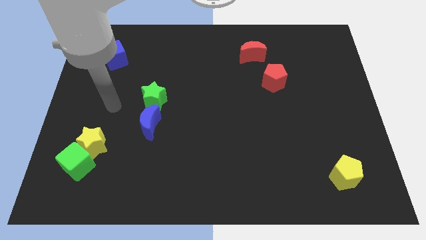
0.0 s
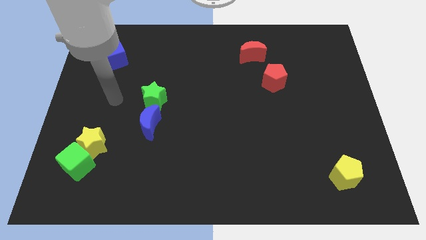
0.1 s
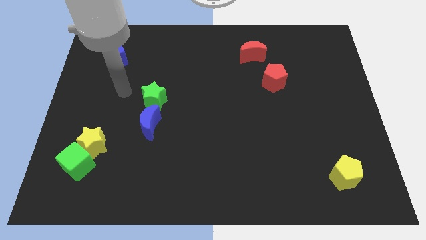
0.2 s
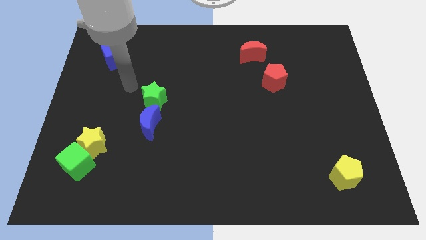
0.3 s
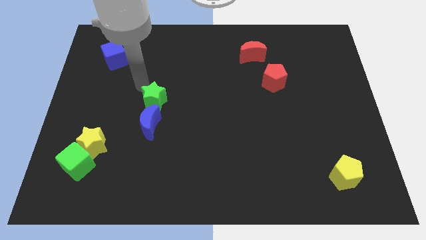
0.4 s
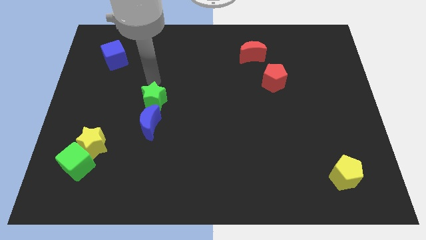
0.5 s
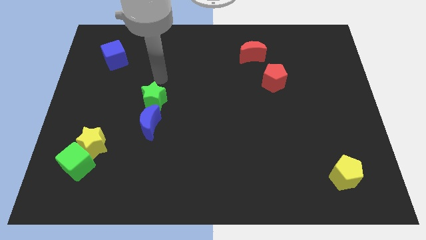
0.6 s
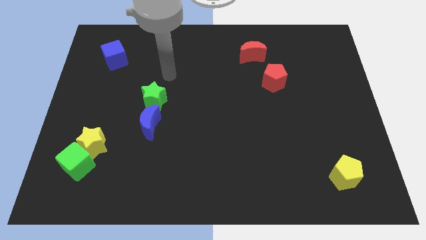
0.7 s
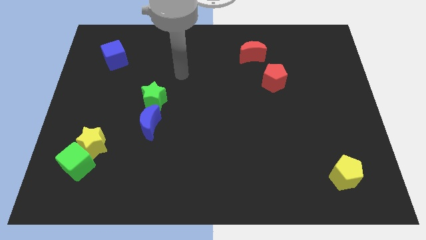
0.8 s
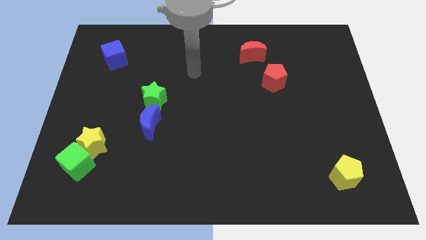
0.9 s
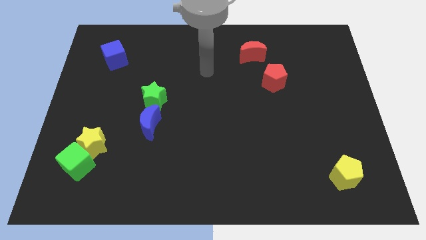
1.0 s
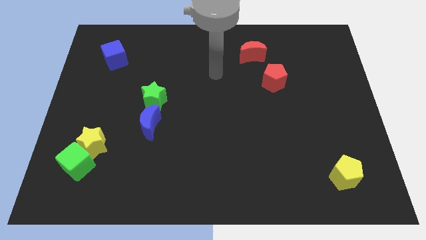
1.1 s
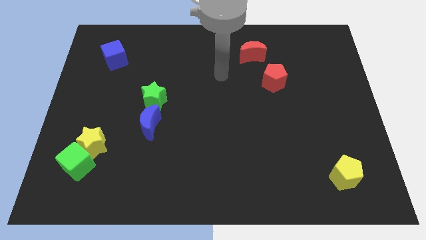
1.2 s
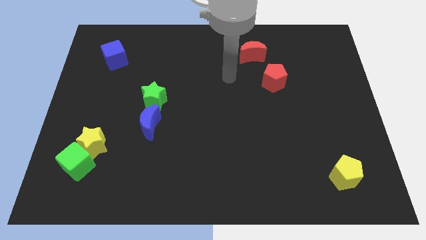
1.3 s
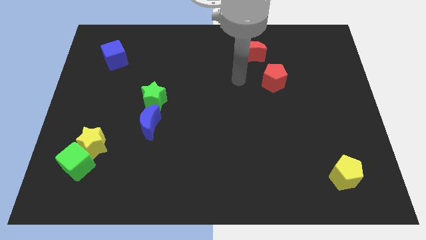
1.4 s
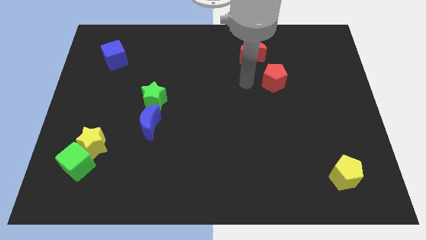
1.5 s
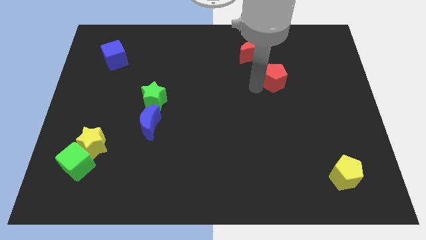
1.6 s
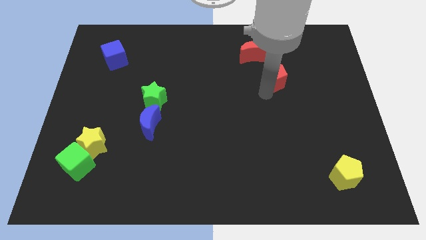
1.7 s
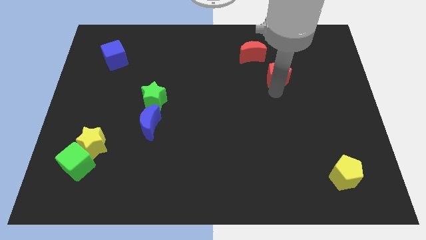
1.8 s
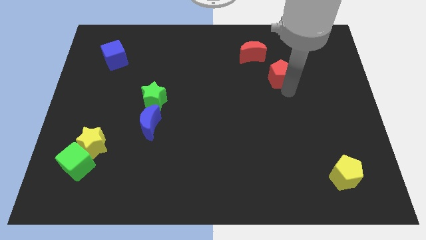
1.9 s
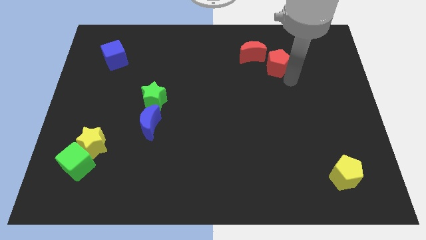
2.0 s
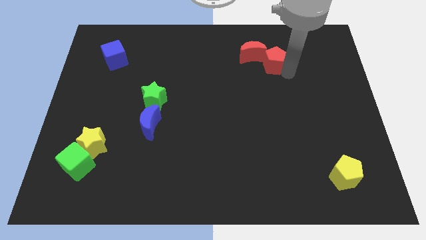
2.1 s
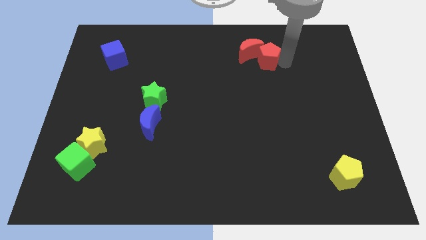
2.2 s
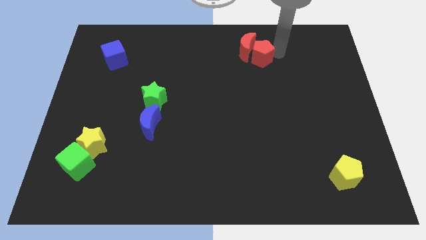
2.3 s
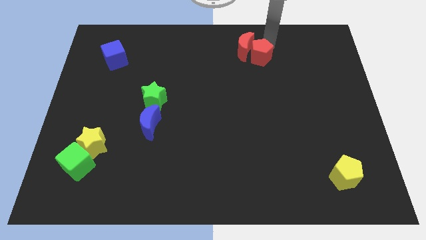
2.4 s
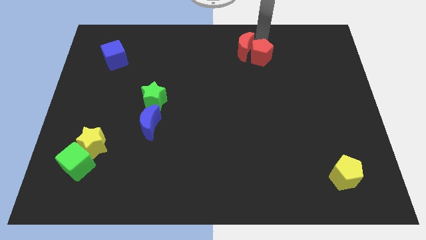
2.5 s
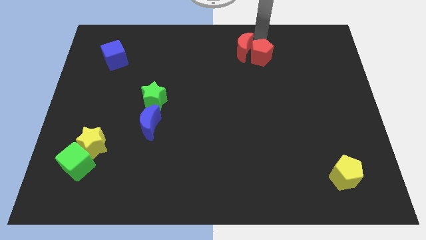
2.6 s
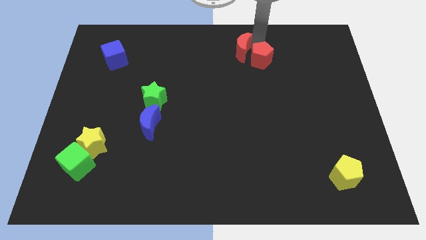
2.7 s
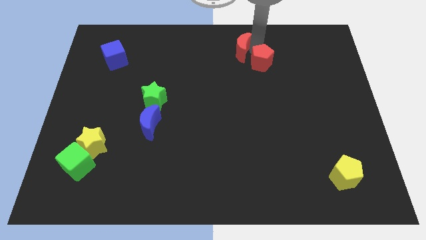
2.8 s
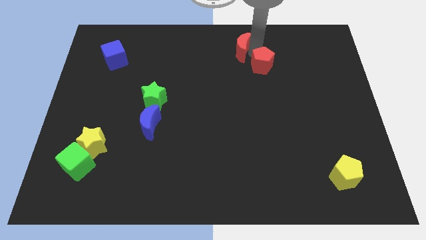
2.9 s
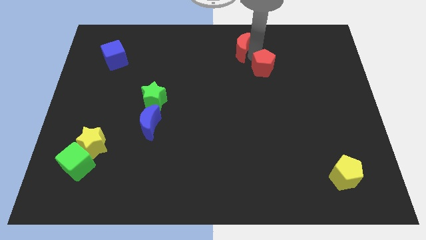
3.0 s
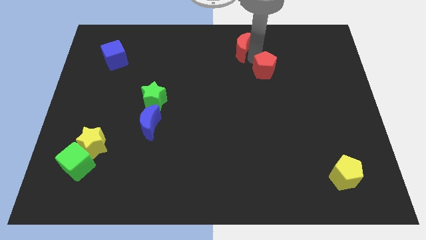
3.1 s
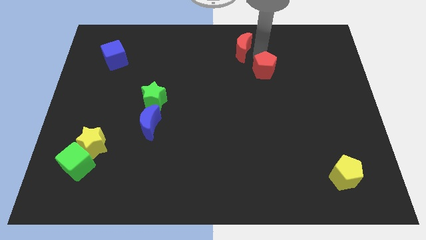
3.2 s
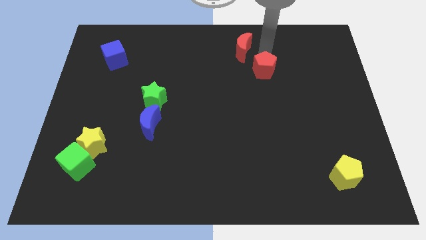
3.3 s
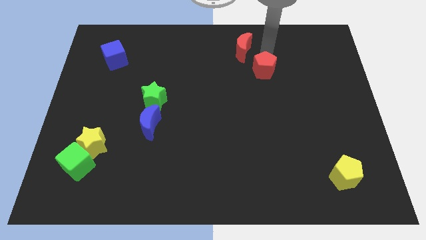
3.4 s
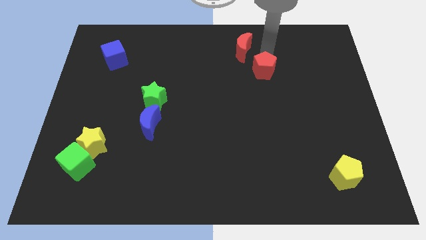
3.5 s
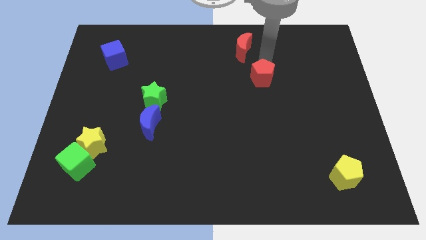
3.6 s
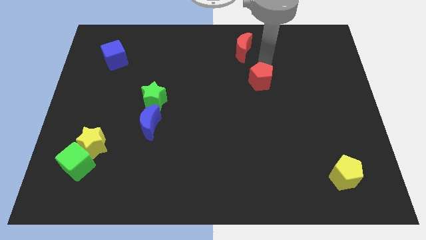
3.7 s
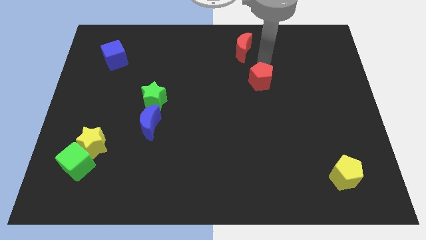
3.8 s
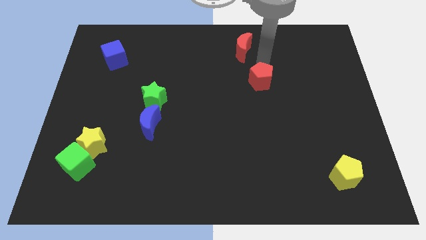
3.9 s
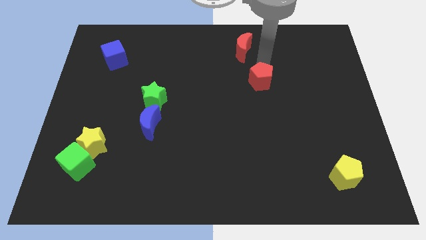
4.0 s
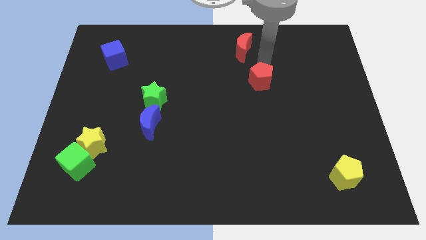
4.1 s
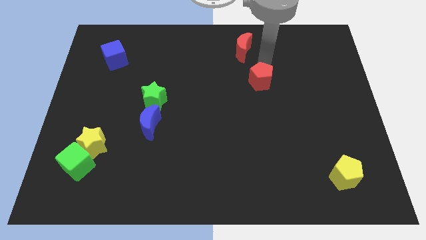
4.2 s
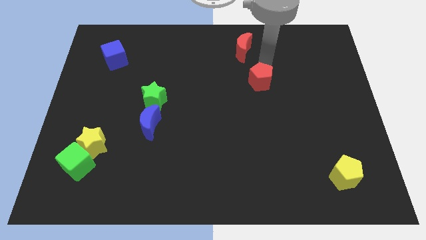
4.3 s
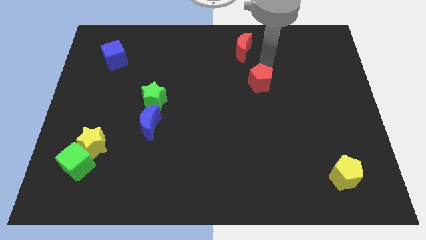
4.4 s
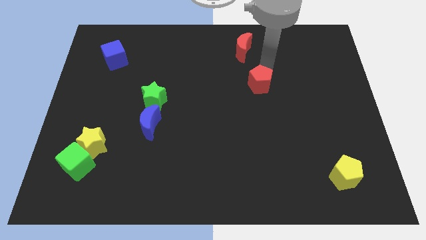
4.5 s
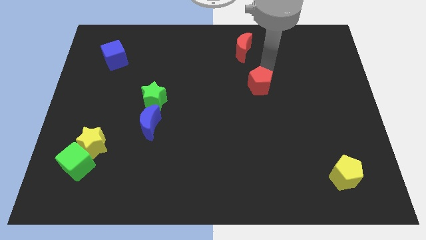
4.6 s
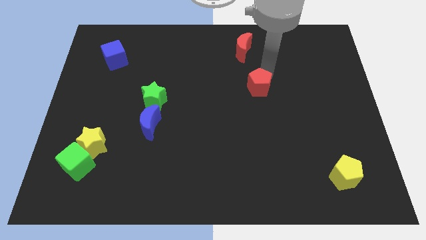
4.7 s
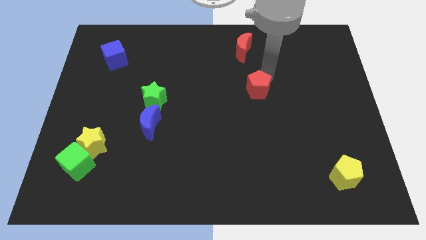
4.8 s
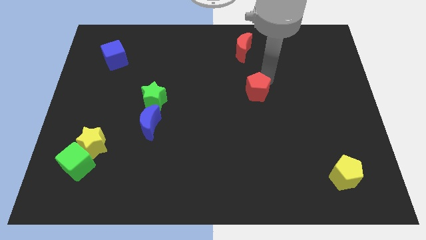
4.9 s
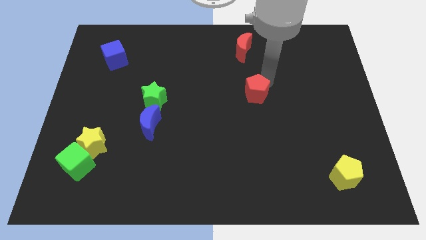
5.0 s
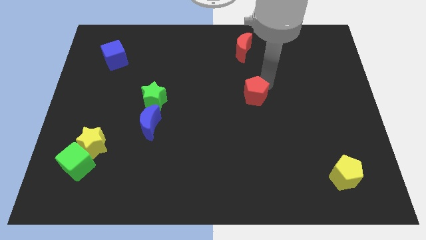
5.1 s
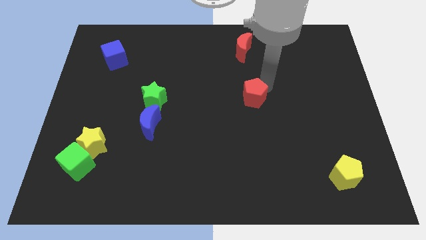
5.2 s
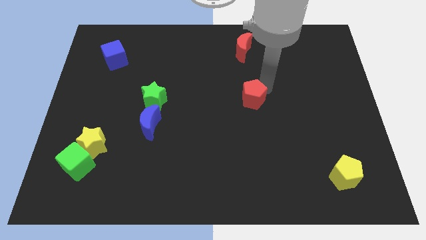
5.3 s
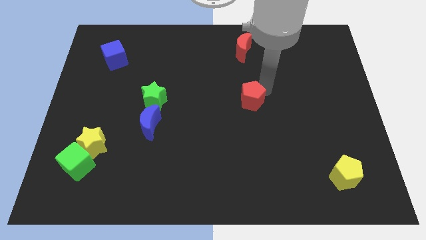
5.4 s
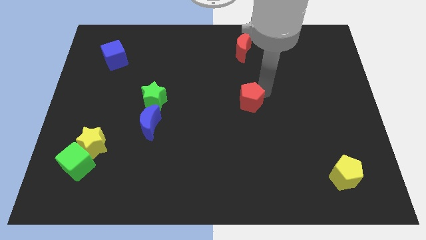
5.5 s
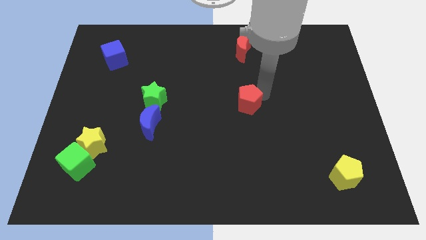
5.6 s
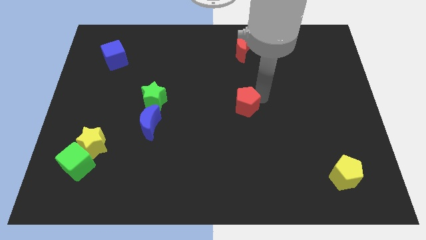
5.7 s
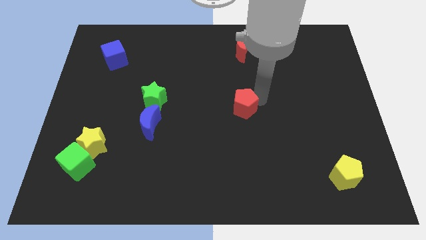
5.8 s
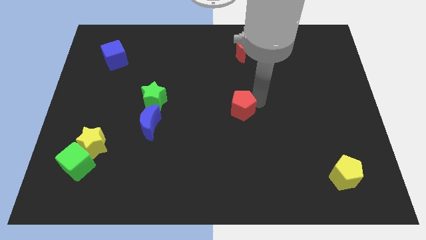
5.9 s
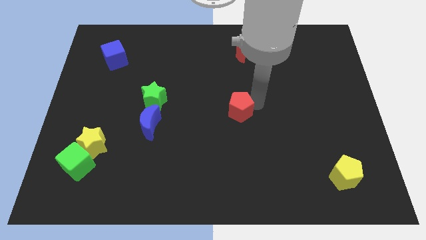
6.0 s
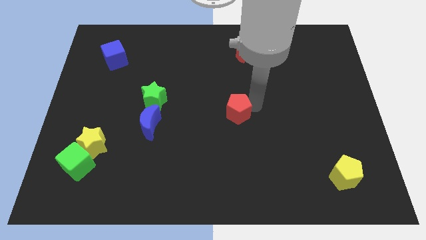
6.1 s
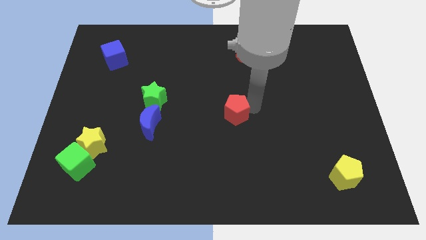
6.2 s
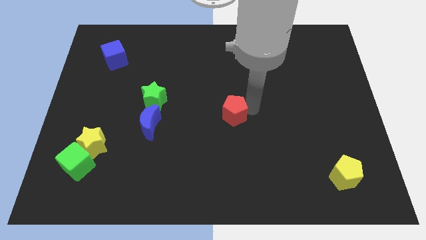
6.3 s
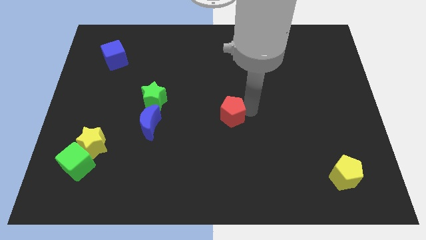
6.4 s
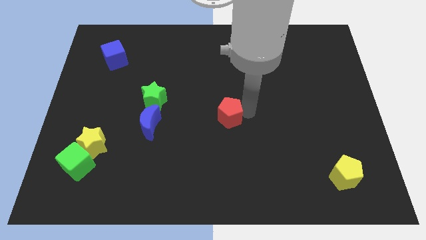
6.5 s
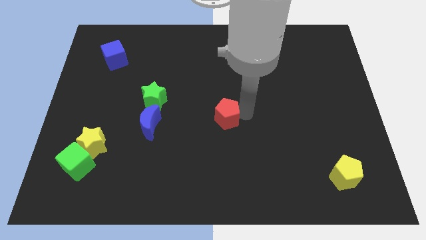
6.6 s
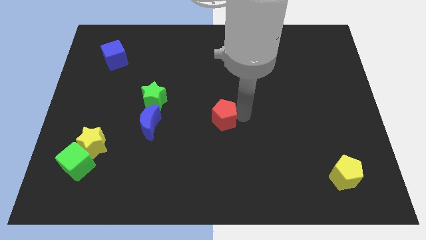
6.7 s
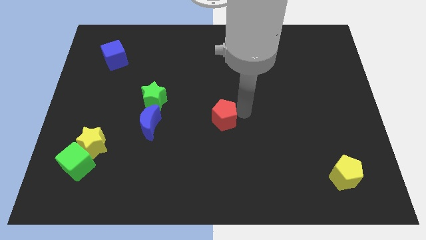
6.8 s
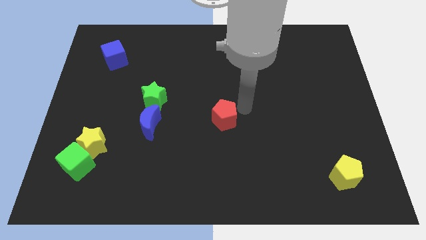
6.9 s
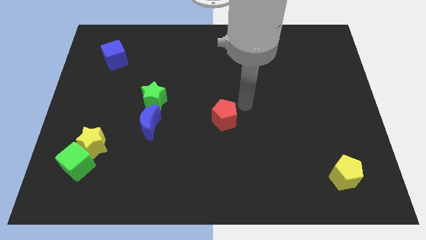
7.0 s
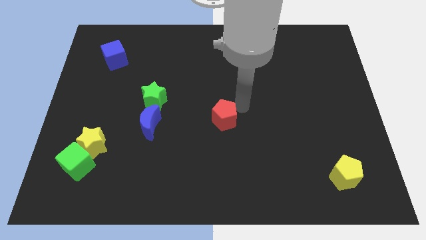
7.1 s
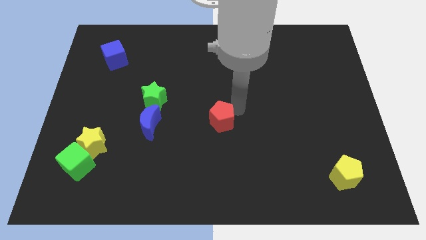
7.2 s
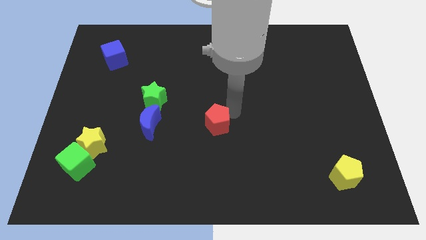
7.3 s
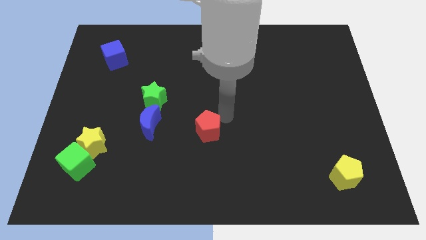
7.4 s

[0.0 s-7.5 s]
move the red pentagon down and to the left
